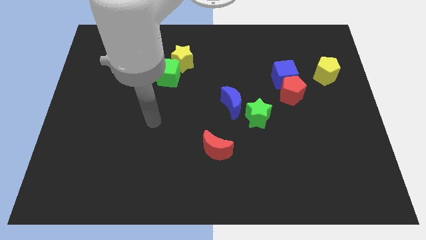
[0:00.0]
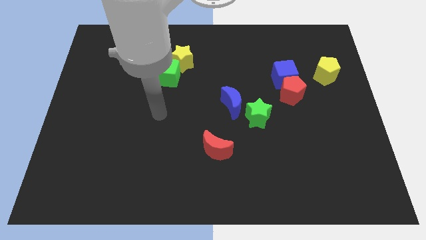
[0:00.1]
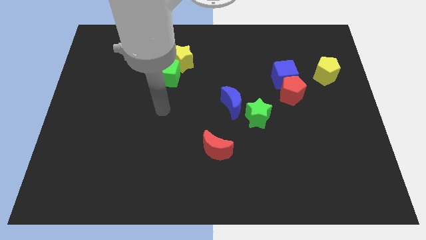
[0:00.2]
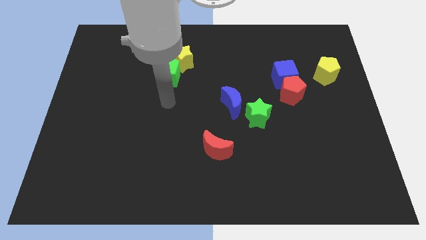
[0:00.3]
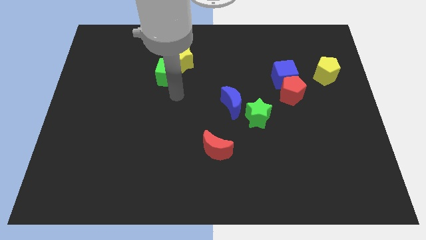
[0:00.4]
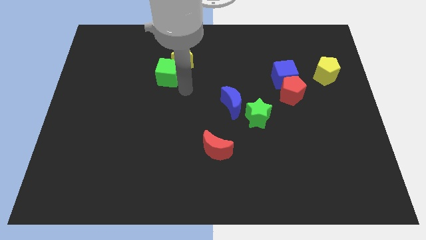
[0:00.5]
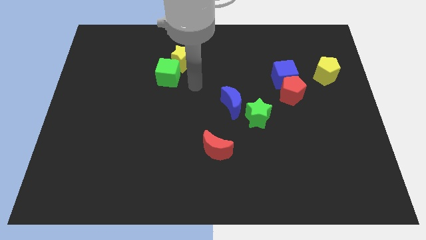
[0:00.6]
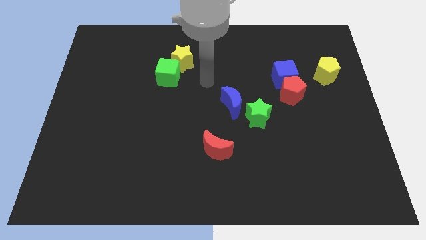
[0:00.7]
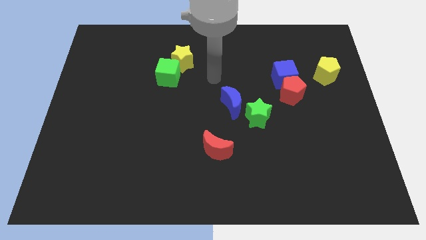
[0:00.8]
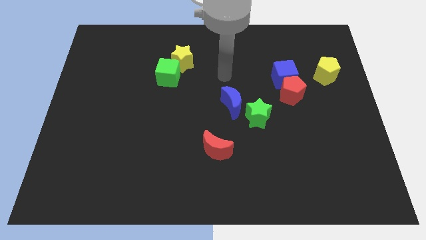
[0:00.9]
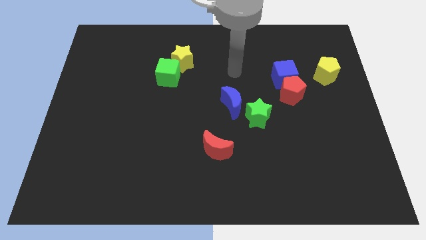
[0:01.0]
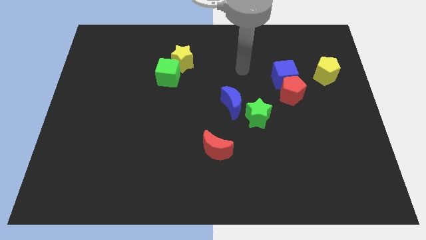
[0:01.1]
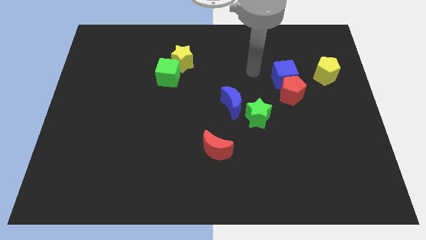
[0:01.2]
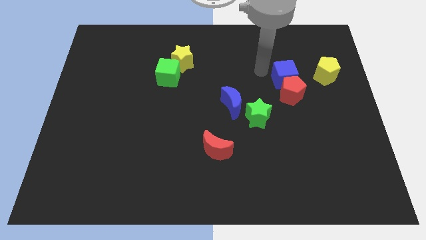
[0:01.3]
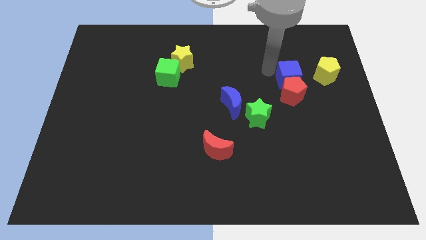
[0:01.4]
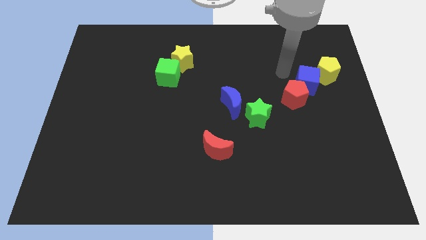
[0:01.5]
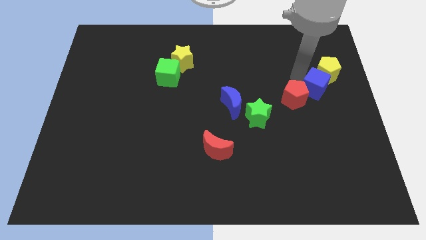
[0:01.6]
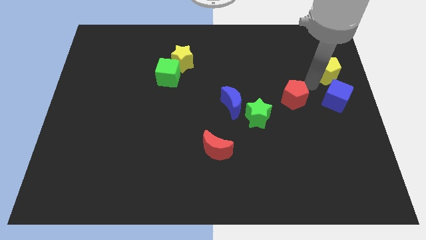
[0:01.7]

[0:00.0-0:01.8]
move the red pentagon away from the blue cube

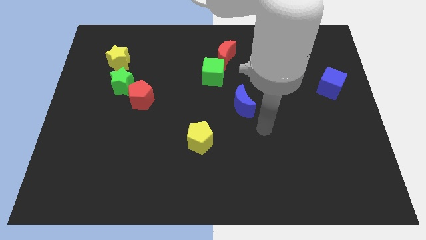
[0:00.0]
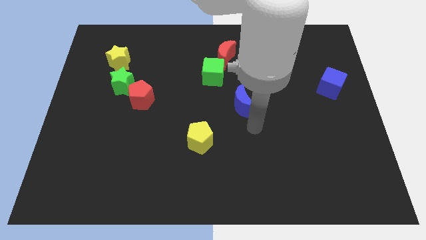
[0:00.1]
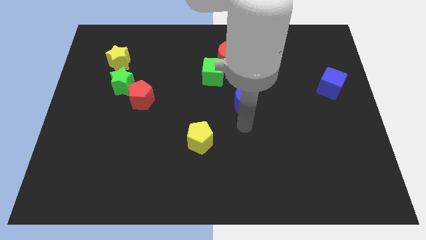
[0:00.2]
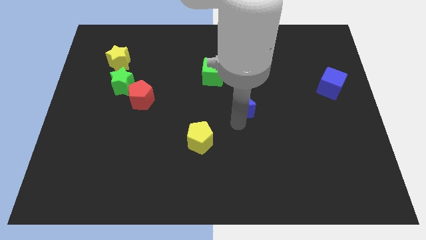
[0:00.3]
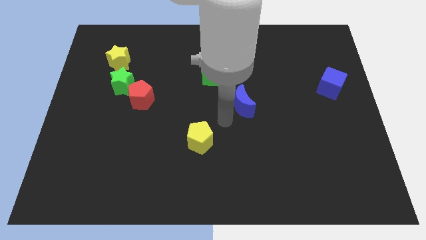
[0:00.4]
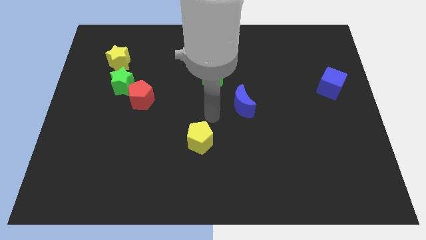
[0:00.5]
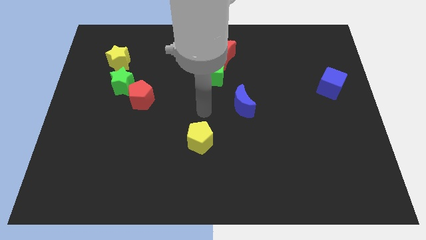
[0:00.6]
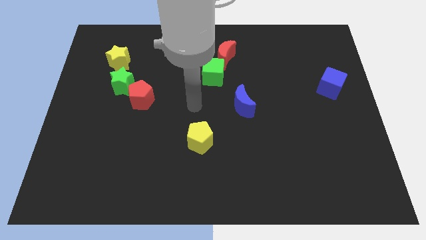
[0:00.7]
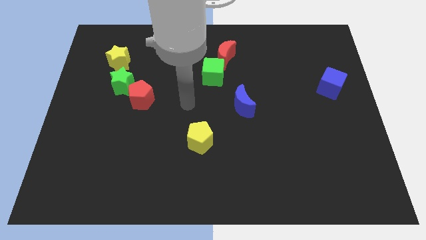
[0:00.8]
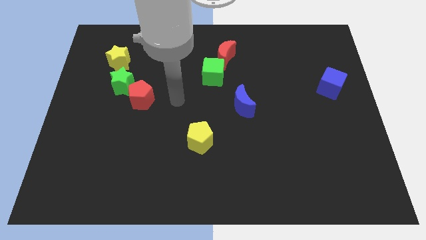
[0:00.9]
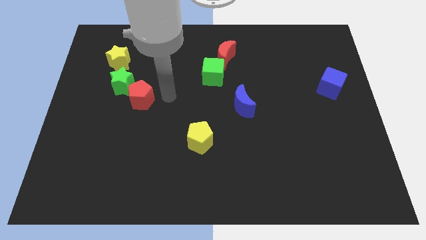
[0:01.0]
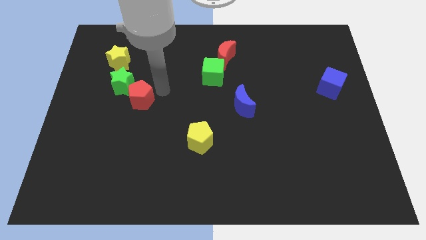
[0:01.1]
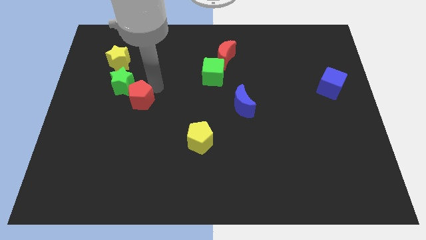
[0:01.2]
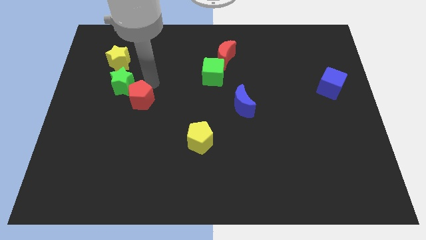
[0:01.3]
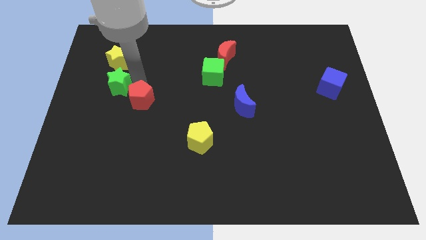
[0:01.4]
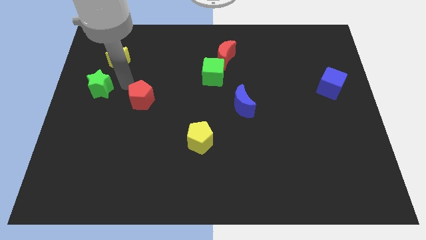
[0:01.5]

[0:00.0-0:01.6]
separate the red pentagon from the green star

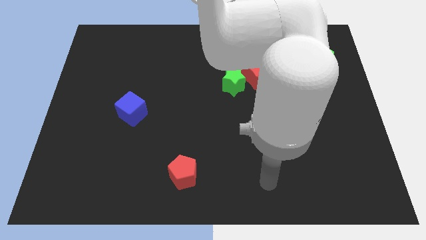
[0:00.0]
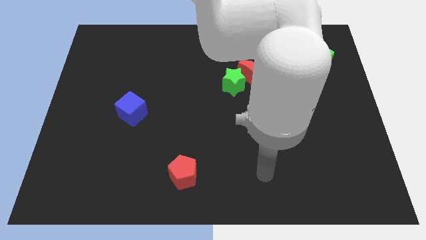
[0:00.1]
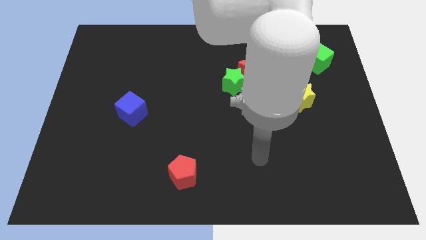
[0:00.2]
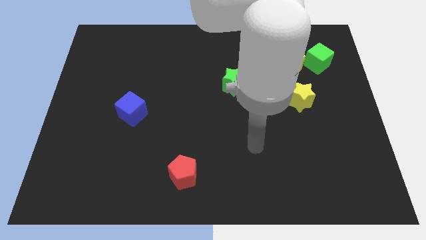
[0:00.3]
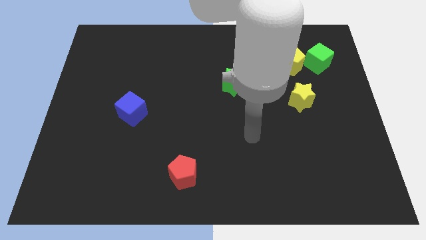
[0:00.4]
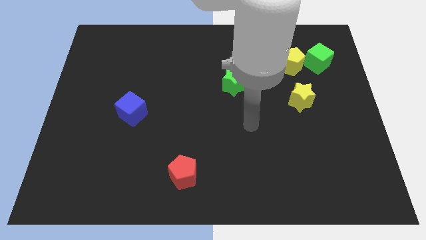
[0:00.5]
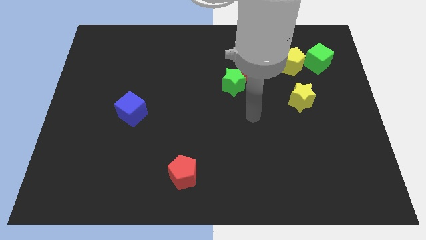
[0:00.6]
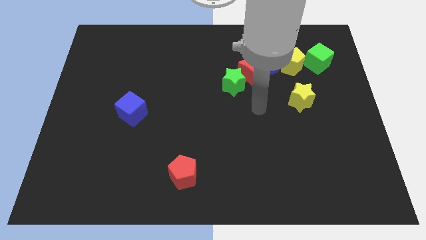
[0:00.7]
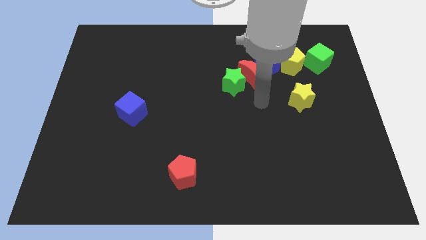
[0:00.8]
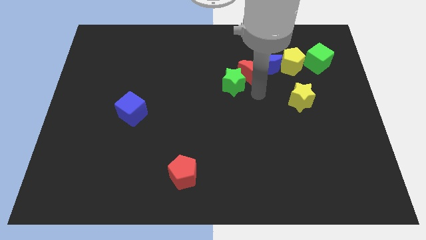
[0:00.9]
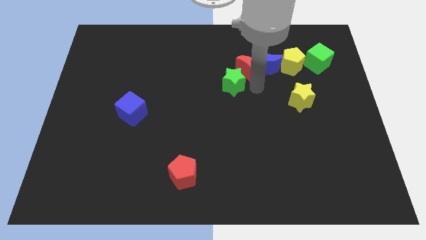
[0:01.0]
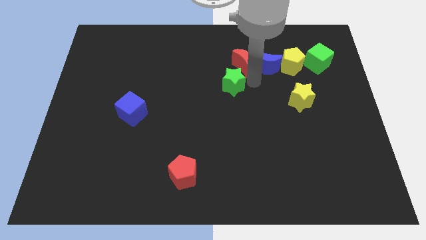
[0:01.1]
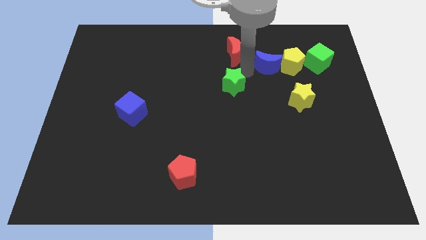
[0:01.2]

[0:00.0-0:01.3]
pull the green star apart from the red moon

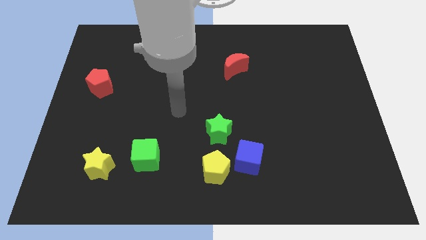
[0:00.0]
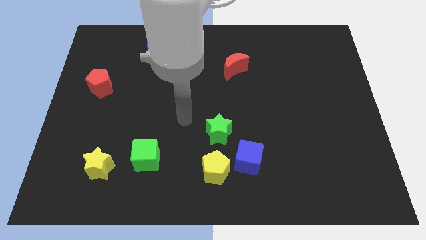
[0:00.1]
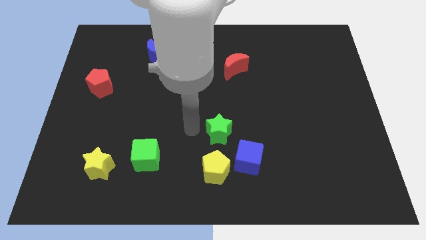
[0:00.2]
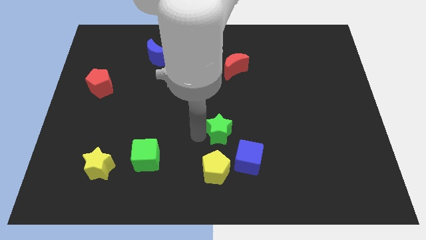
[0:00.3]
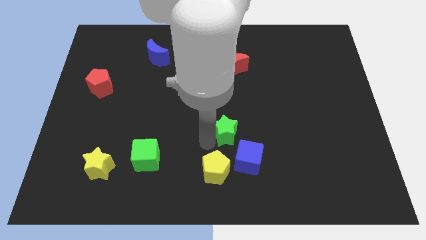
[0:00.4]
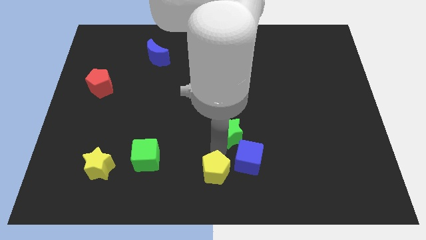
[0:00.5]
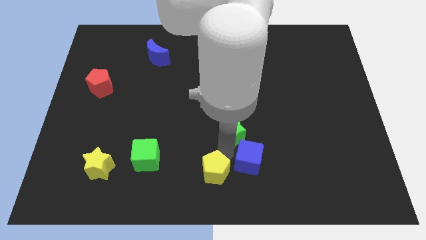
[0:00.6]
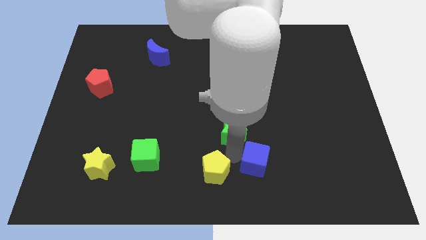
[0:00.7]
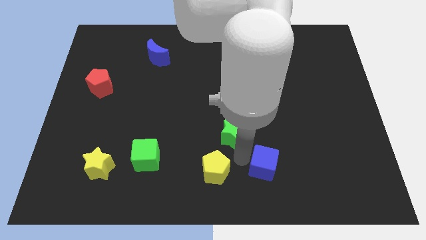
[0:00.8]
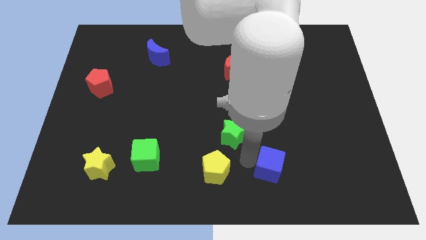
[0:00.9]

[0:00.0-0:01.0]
separate the blue cube from the yellow pentagon and green star

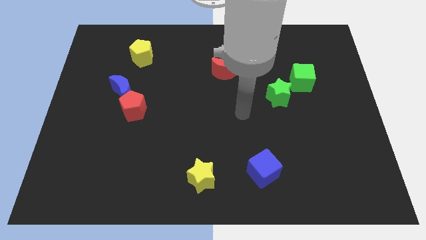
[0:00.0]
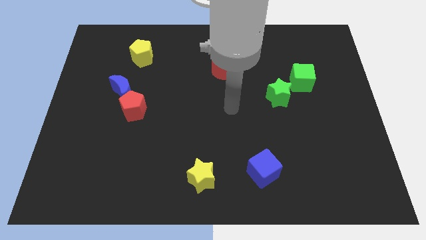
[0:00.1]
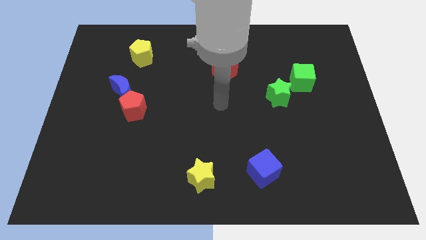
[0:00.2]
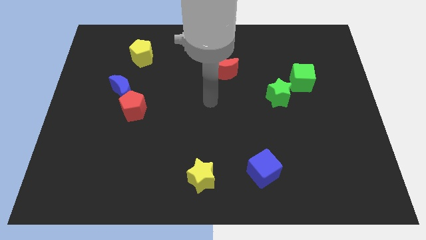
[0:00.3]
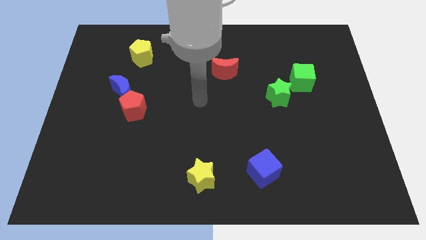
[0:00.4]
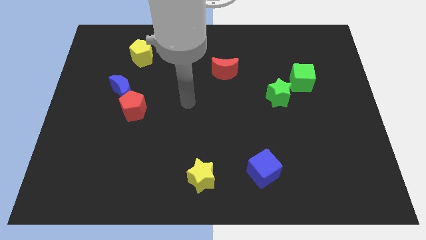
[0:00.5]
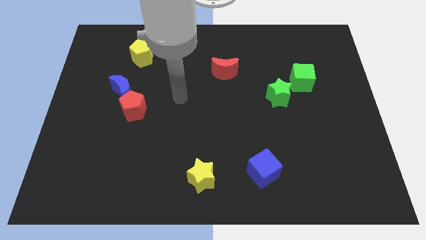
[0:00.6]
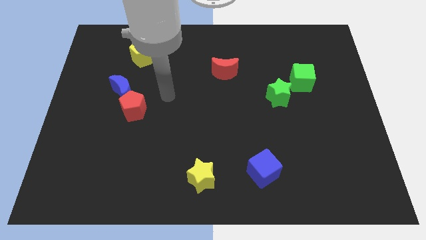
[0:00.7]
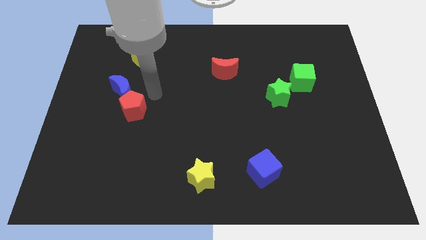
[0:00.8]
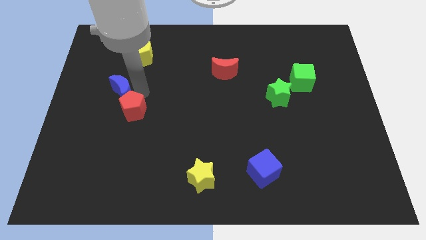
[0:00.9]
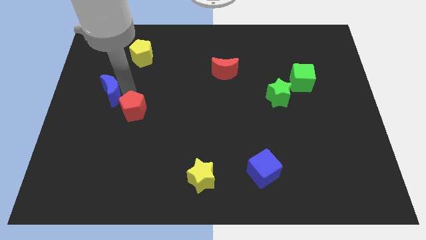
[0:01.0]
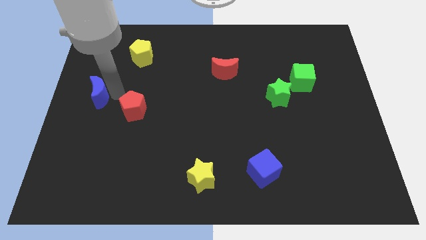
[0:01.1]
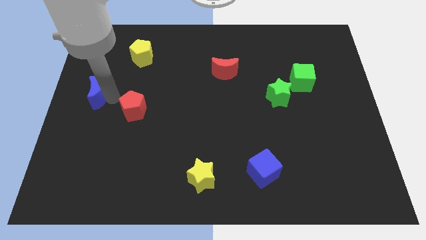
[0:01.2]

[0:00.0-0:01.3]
separate the red pentagon from the blue moon

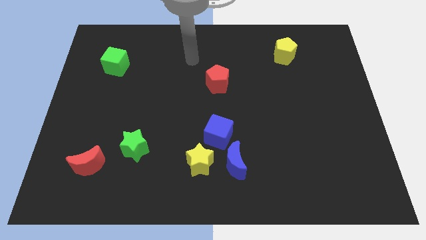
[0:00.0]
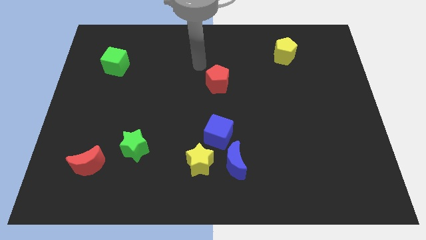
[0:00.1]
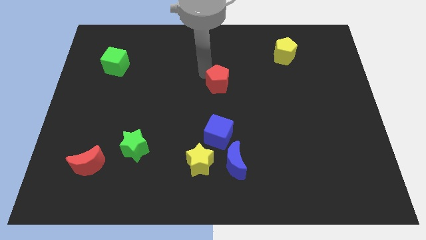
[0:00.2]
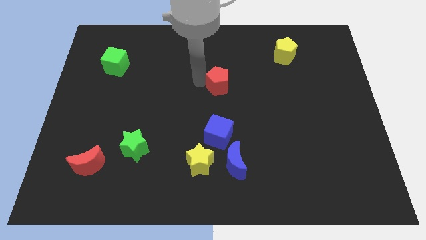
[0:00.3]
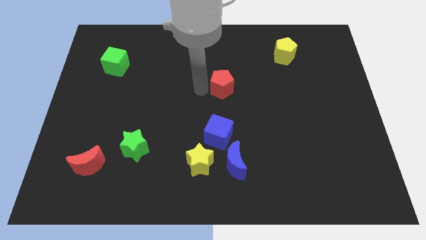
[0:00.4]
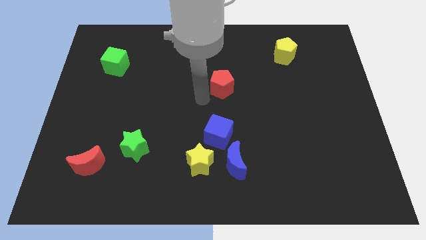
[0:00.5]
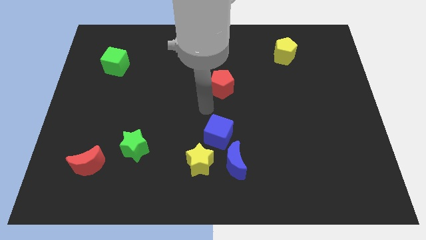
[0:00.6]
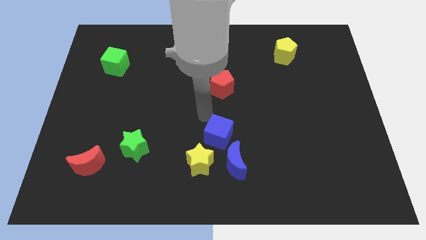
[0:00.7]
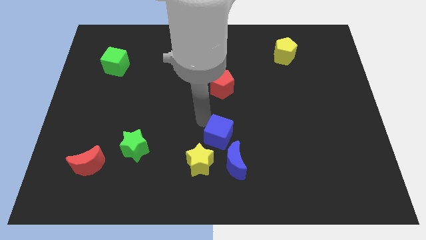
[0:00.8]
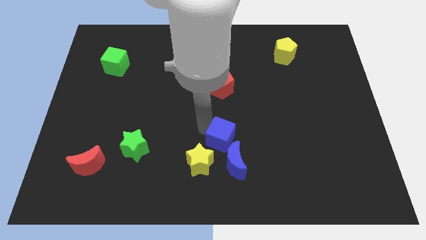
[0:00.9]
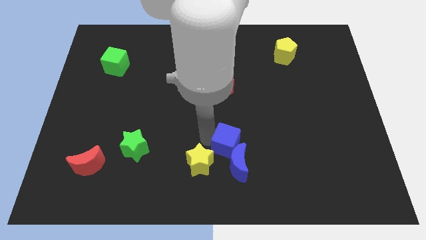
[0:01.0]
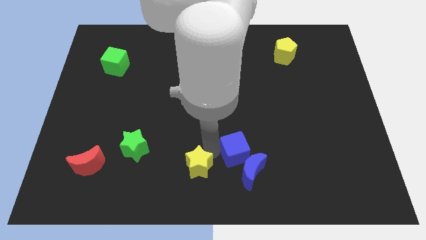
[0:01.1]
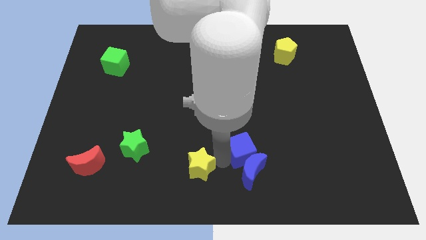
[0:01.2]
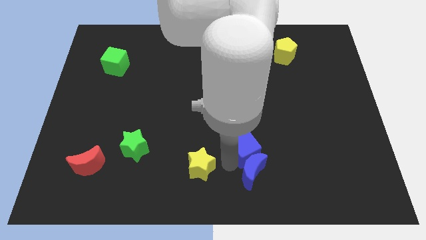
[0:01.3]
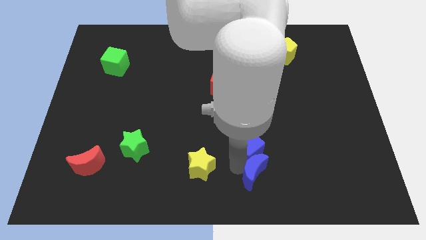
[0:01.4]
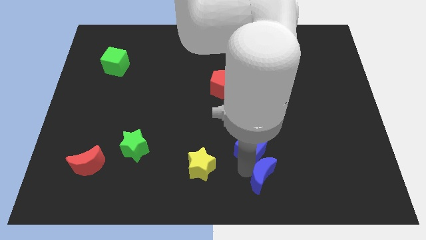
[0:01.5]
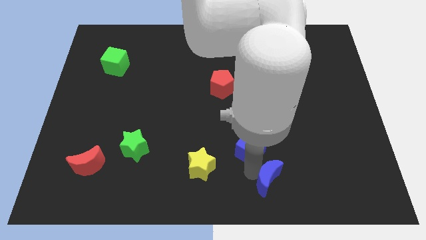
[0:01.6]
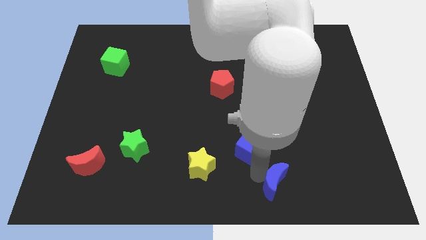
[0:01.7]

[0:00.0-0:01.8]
pull the blue moon apart from the yellow star and blue cube

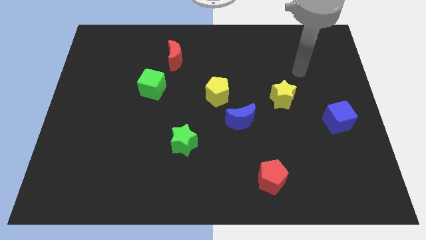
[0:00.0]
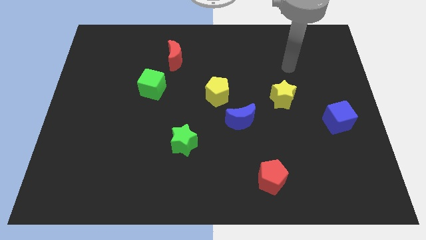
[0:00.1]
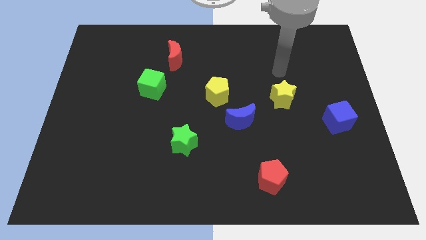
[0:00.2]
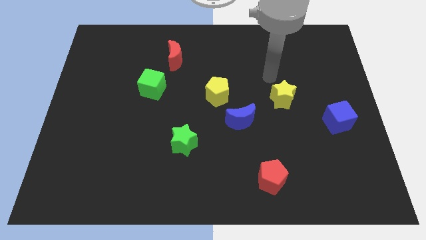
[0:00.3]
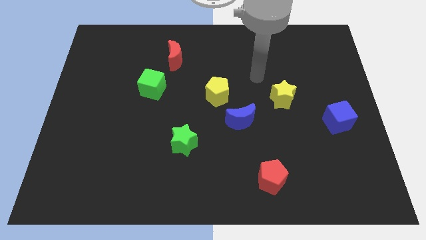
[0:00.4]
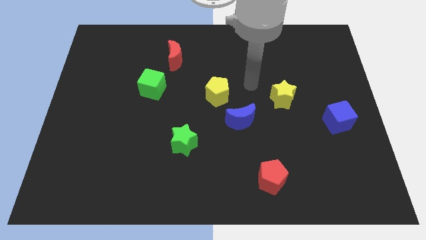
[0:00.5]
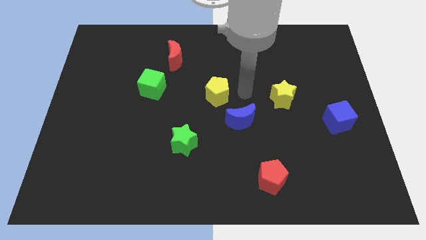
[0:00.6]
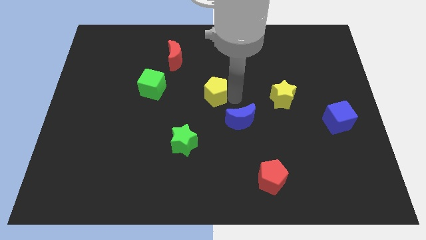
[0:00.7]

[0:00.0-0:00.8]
separate the blue moon from the yellow pentagon
